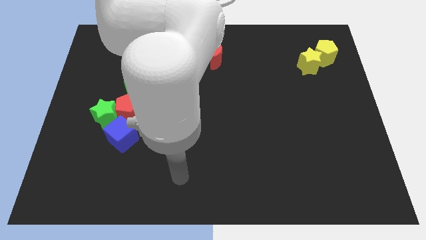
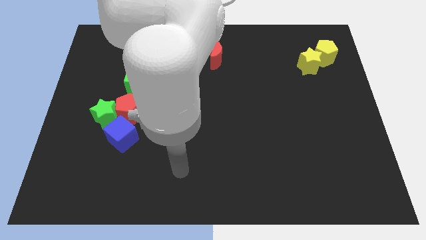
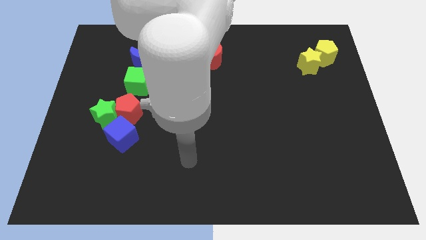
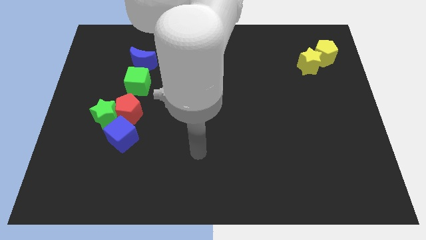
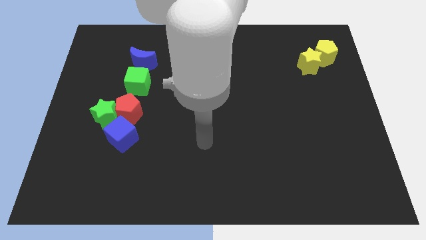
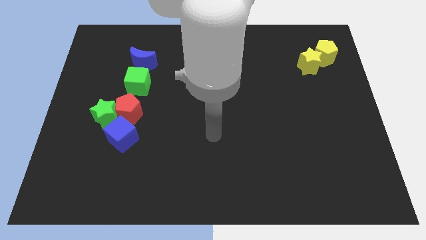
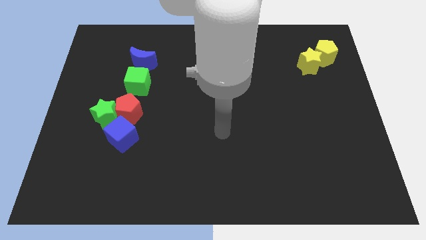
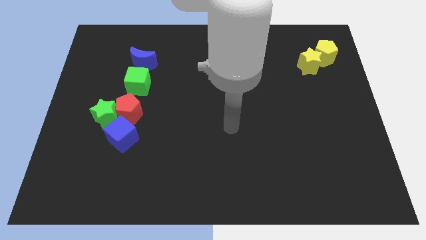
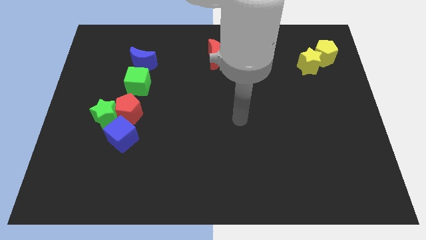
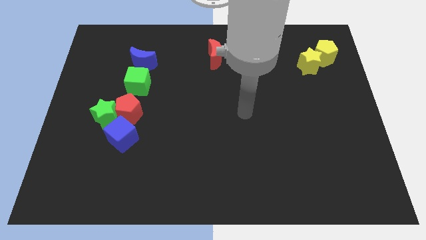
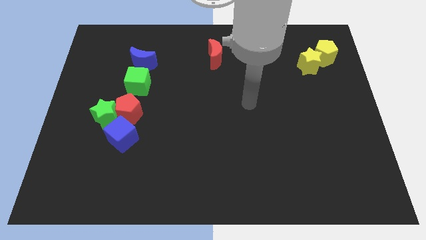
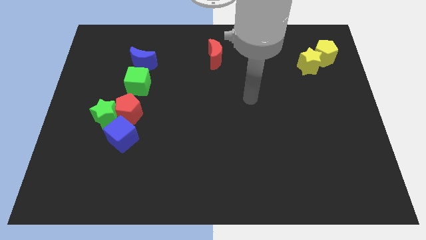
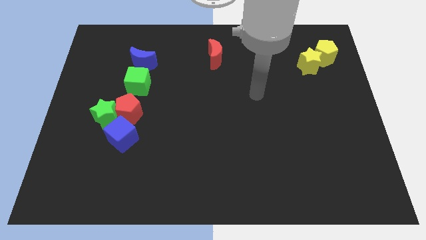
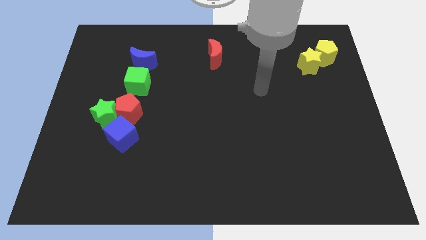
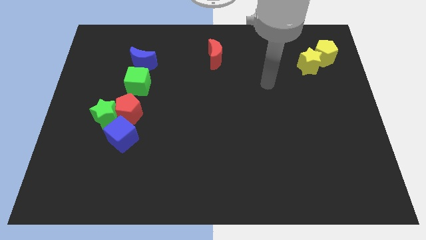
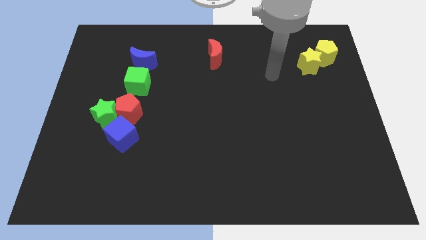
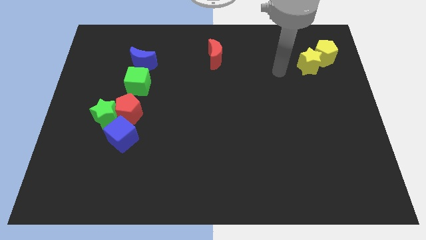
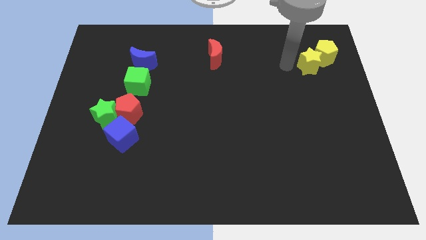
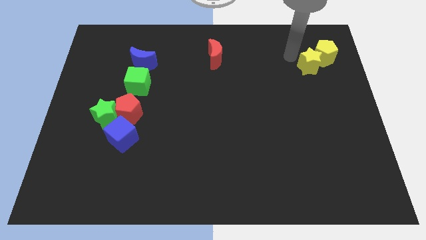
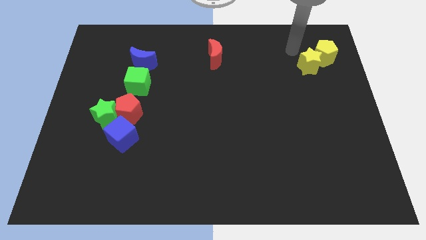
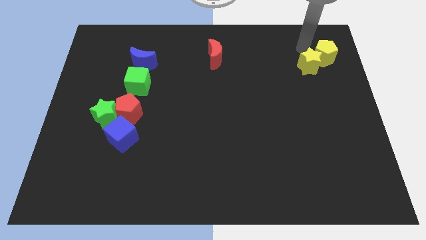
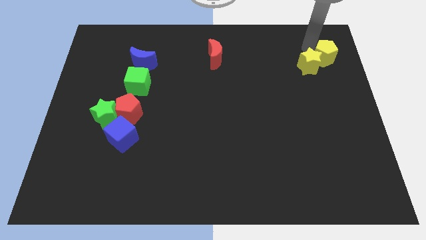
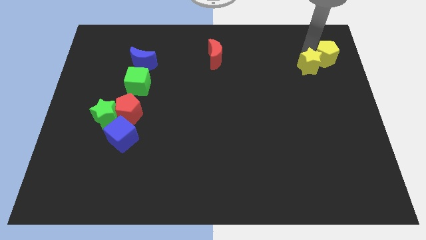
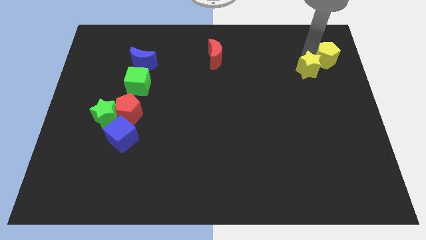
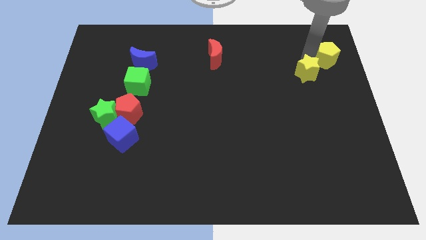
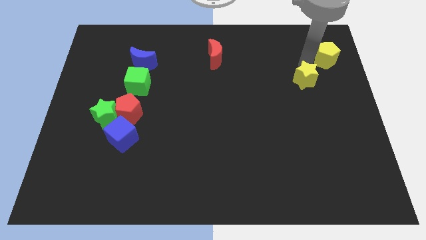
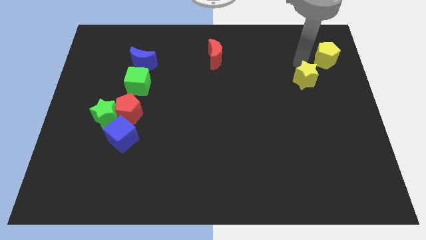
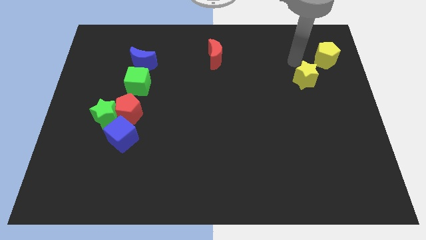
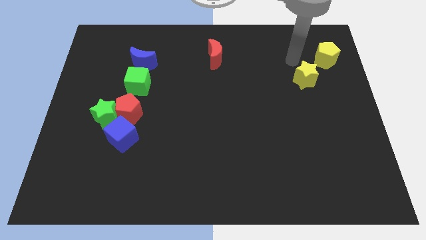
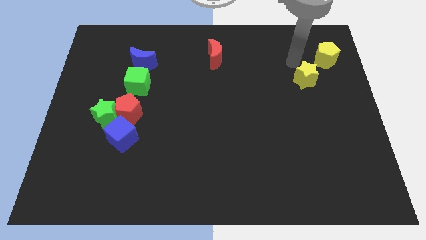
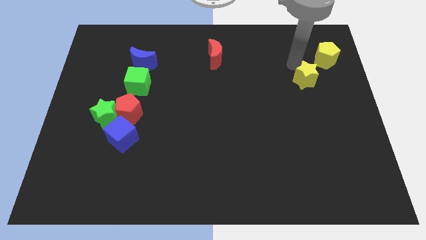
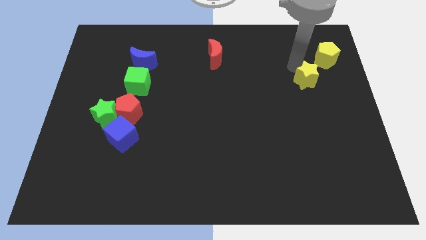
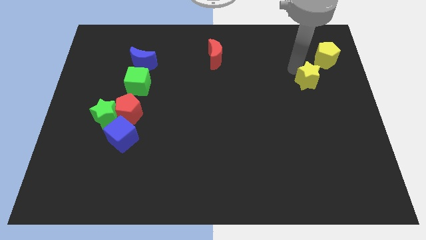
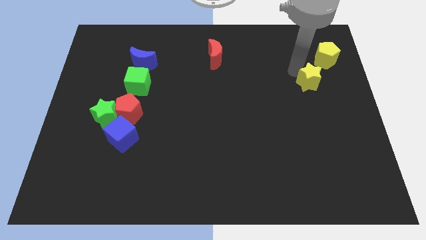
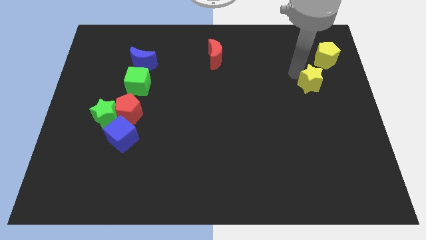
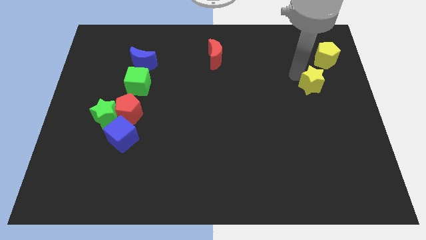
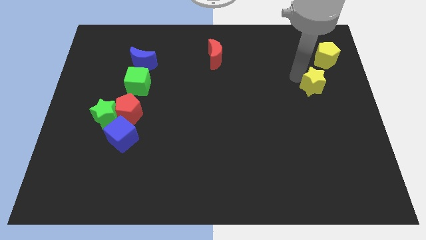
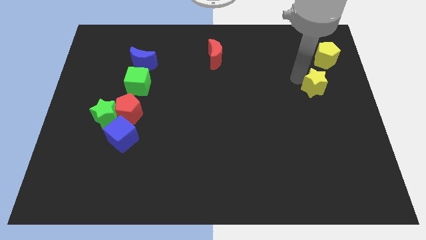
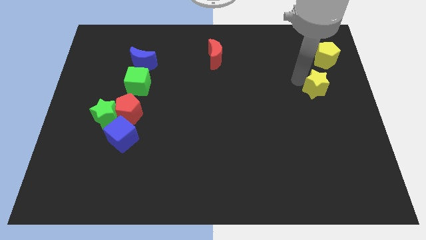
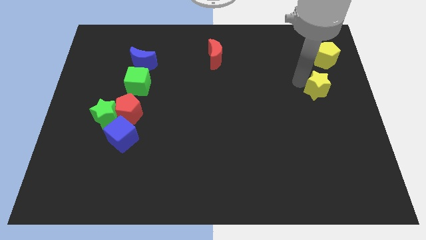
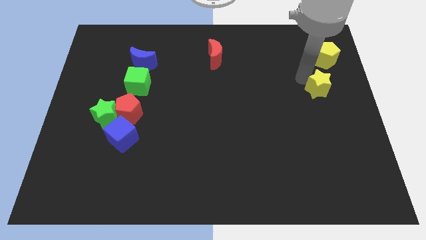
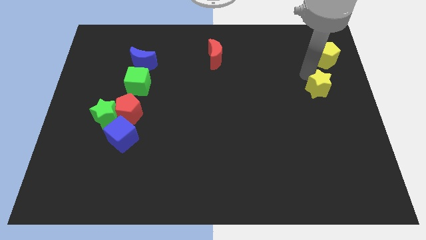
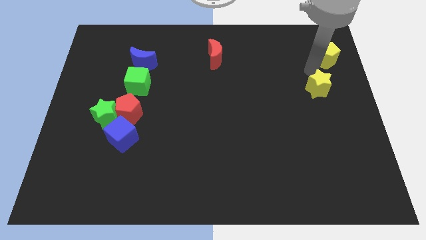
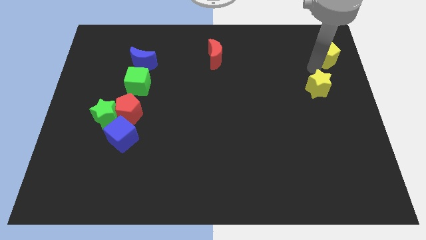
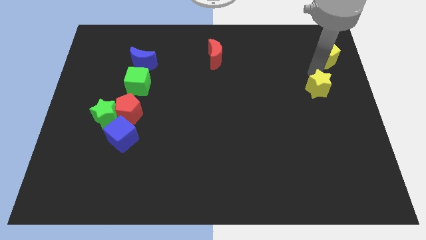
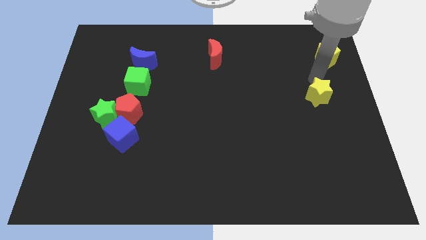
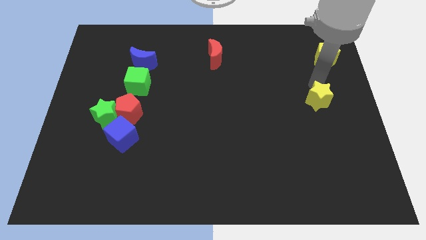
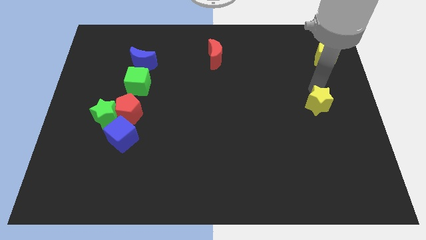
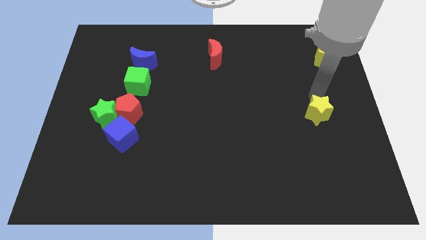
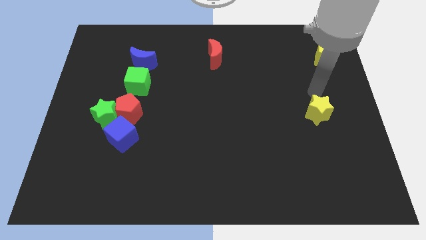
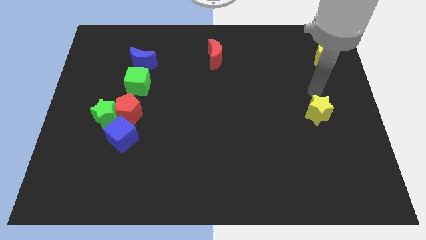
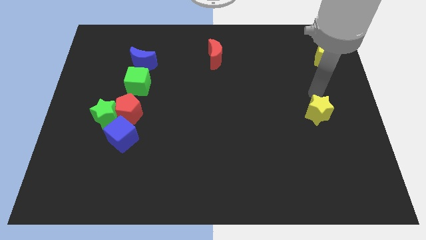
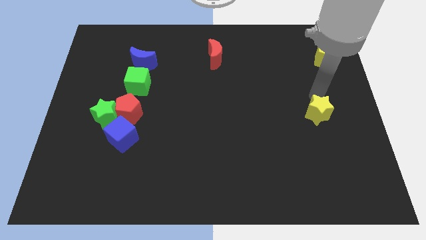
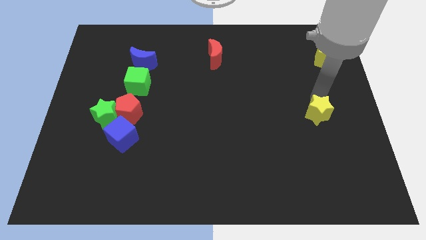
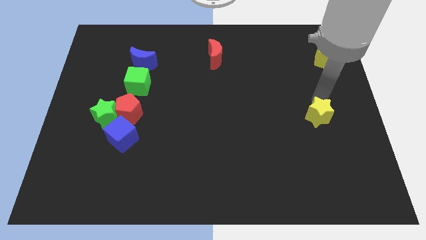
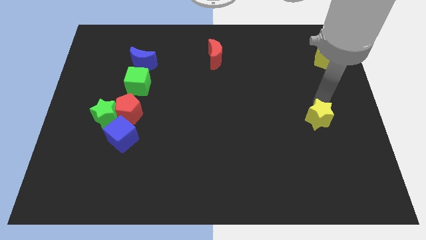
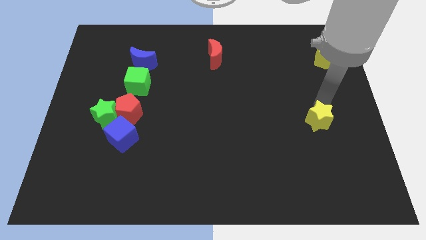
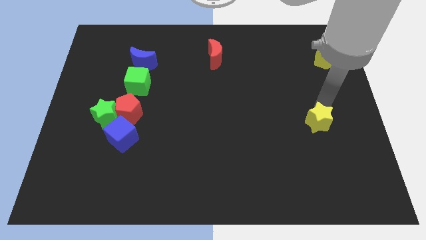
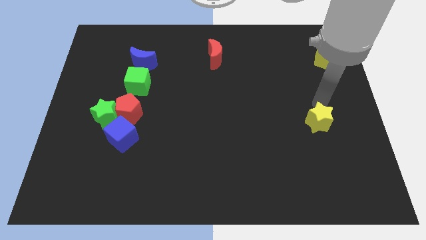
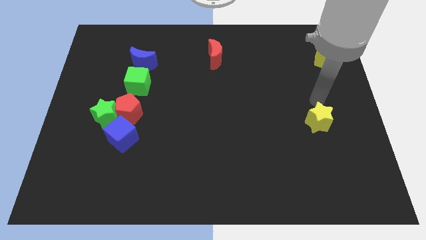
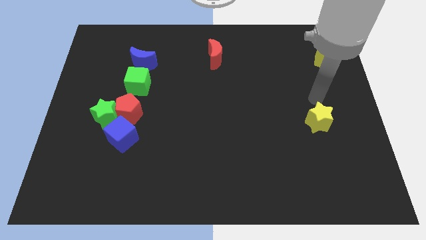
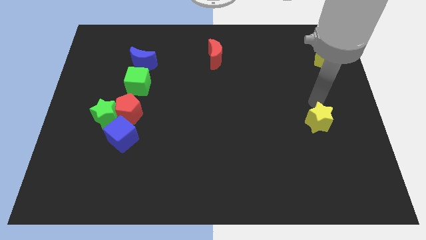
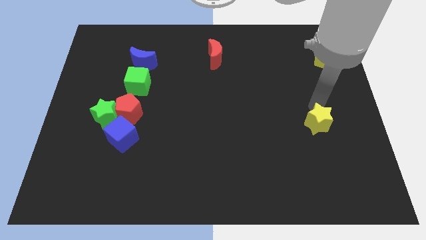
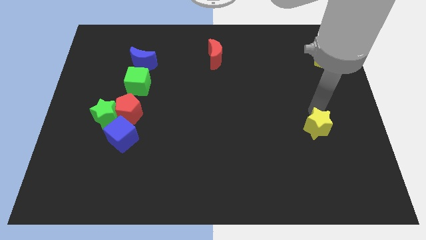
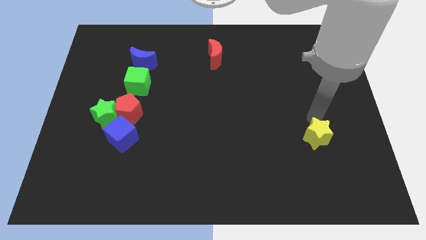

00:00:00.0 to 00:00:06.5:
move the yellow star downwards

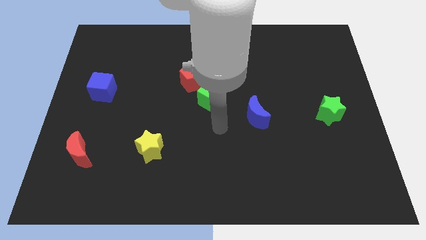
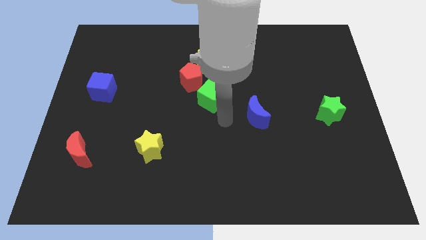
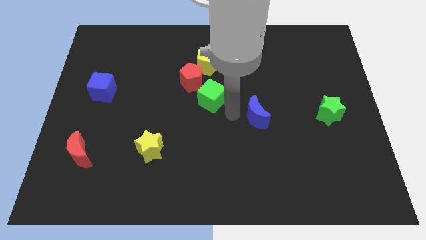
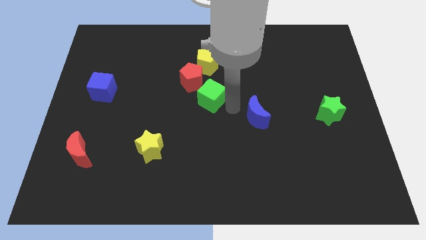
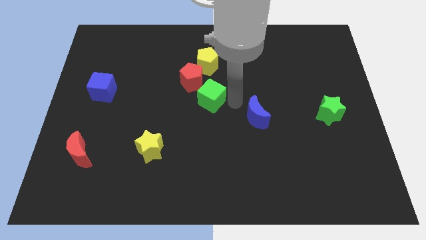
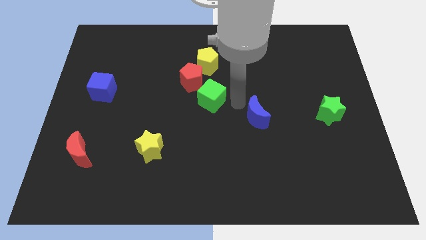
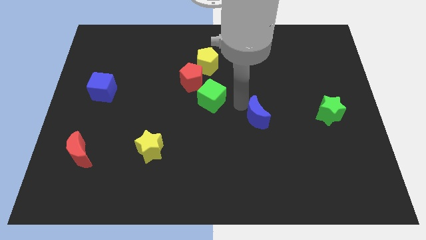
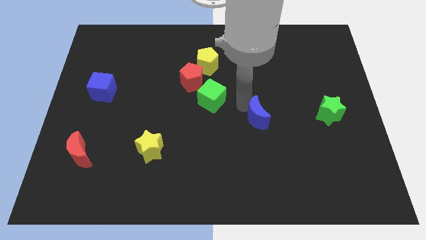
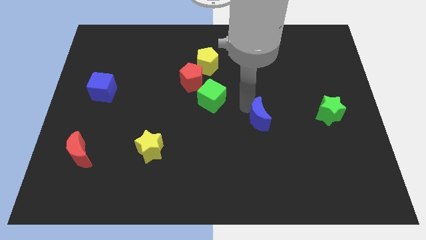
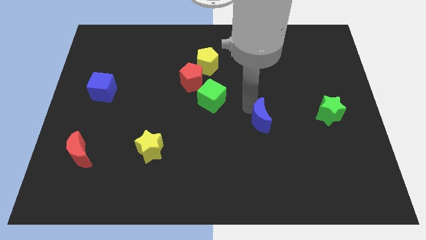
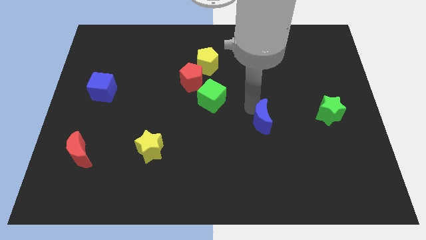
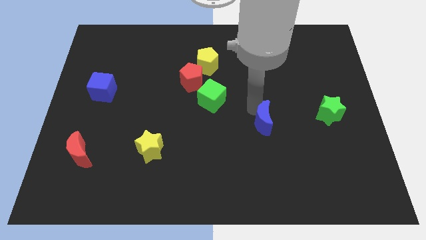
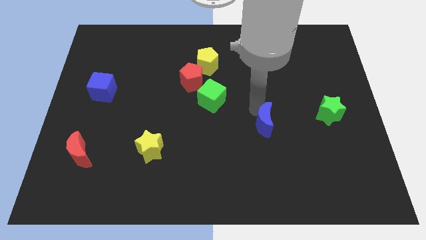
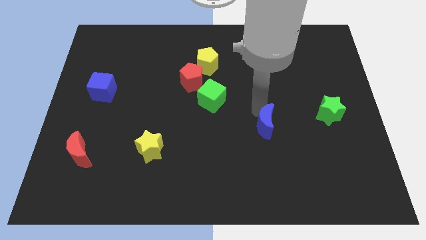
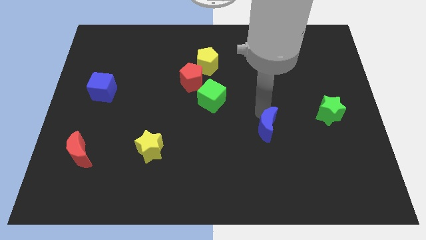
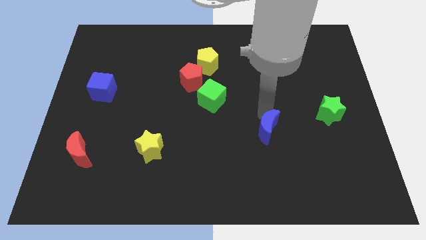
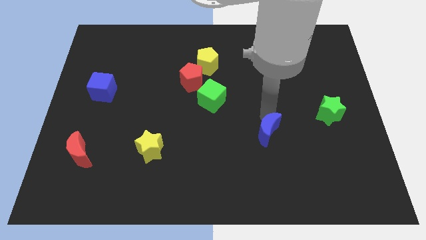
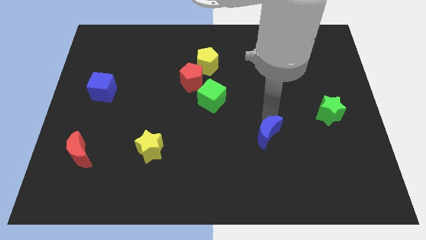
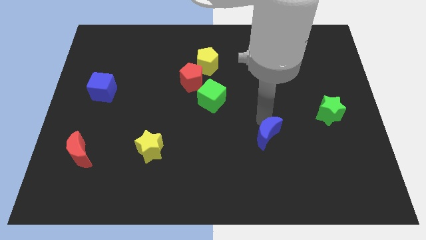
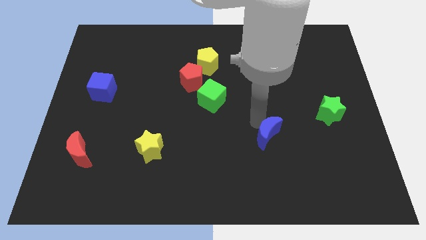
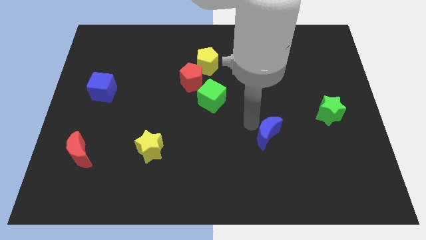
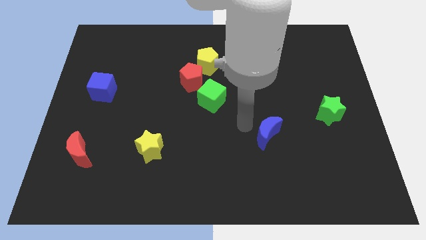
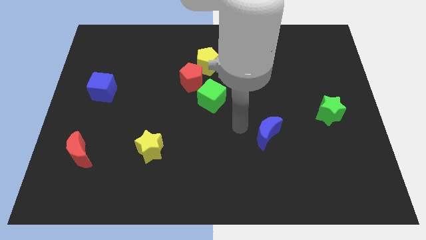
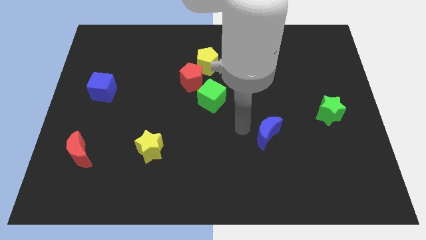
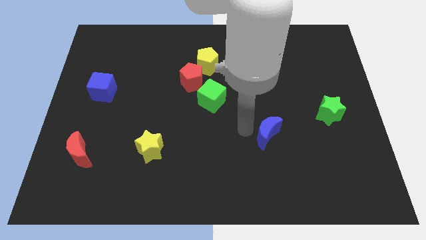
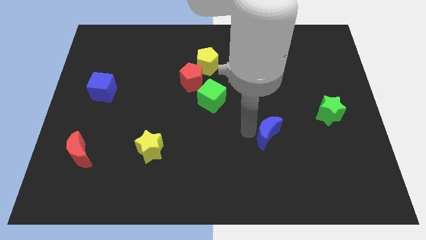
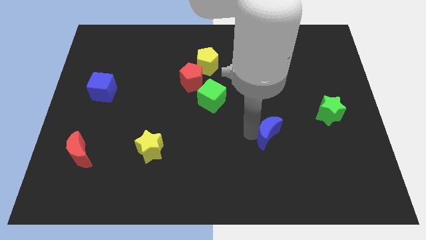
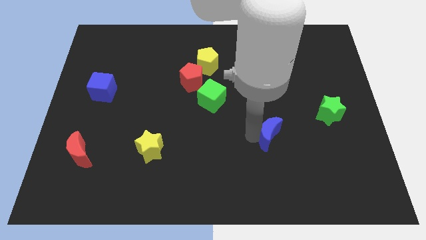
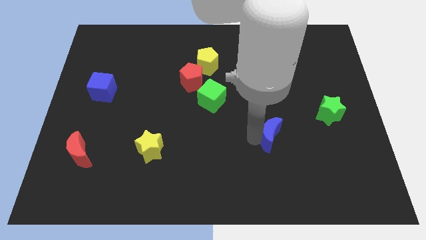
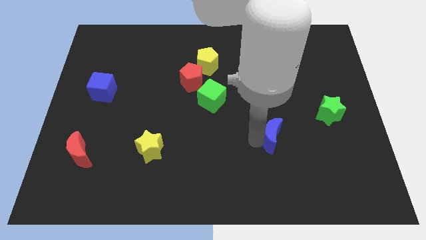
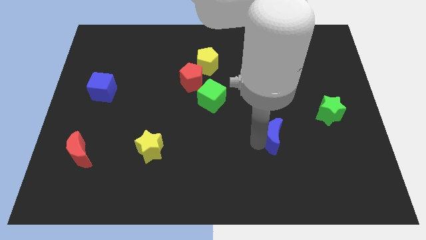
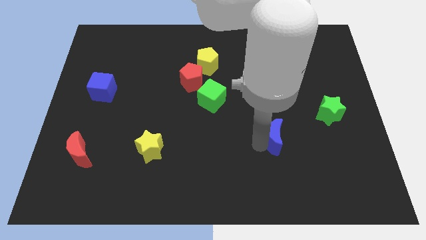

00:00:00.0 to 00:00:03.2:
slide the blue moon a little bit diagonally downwards and right
